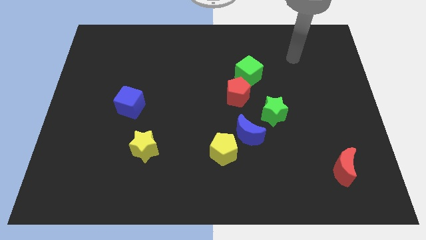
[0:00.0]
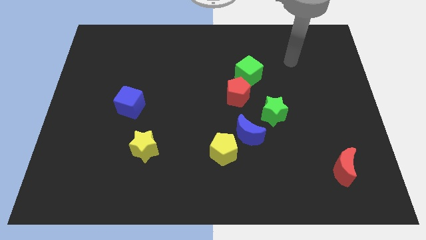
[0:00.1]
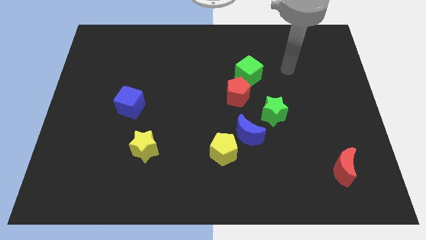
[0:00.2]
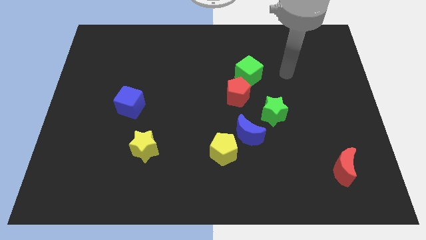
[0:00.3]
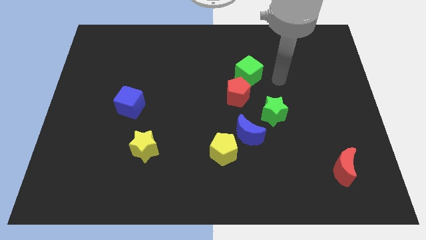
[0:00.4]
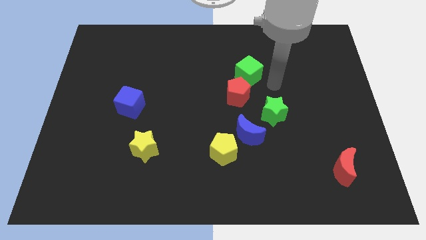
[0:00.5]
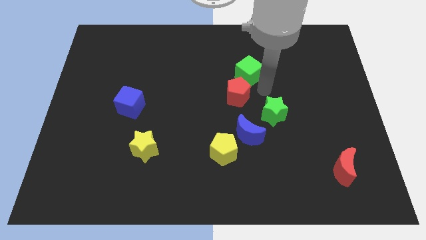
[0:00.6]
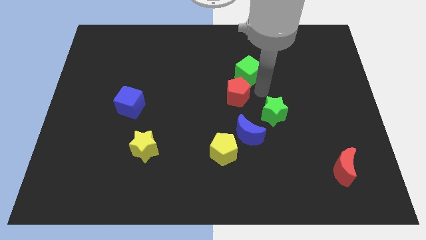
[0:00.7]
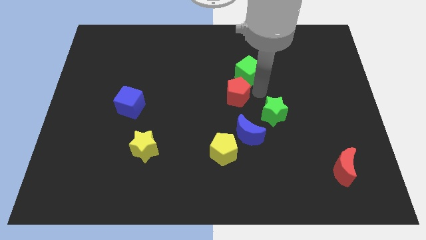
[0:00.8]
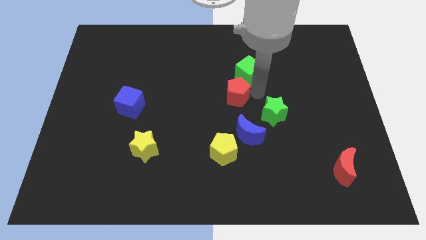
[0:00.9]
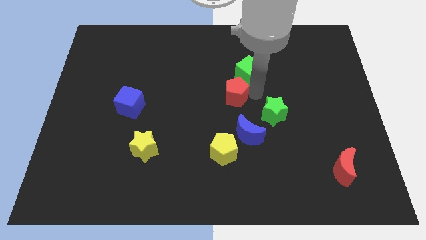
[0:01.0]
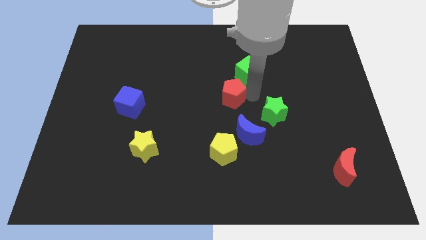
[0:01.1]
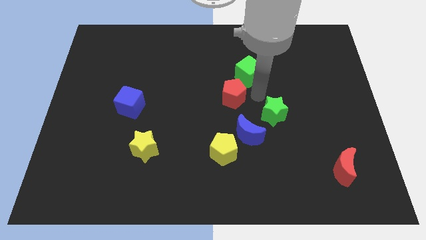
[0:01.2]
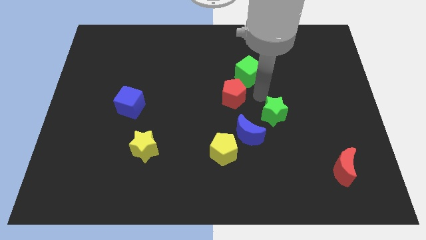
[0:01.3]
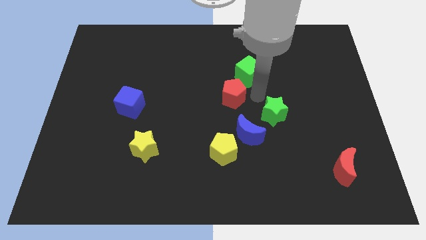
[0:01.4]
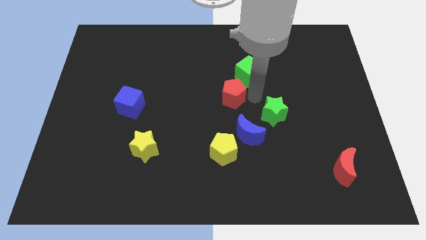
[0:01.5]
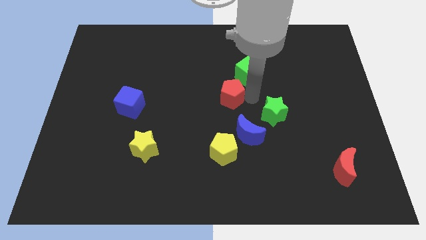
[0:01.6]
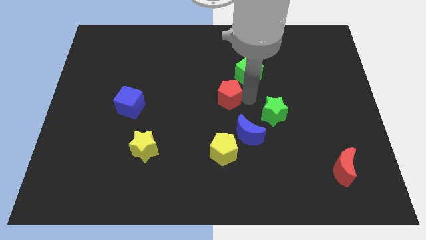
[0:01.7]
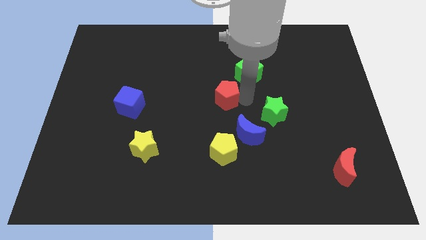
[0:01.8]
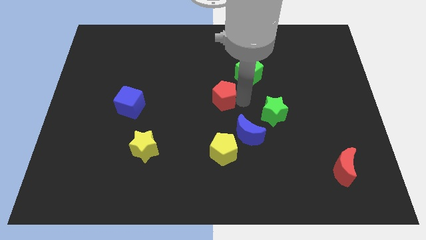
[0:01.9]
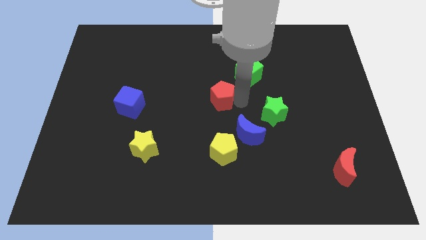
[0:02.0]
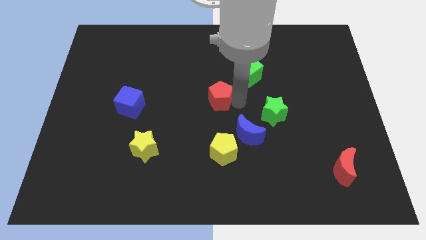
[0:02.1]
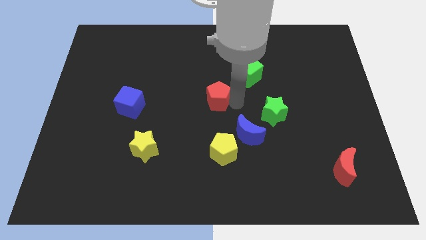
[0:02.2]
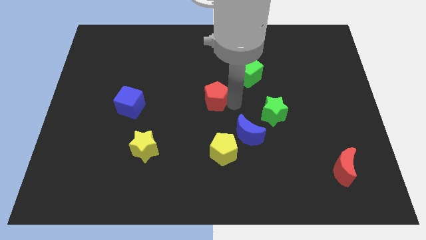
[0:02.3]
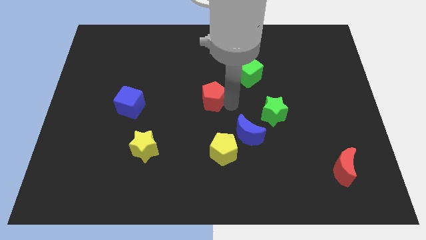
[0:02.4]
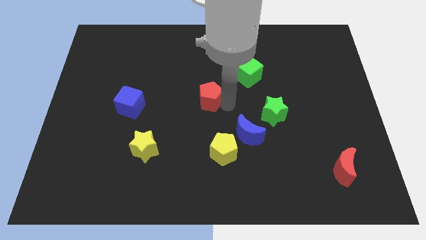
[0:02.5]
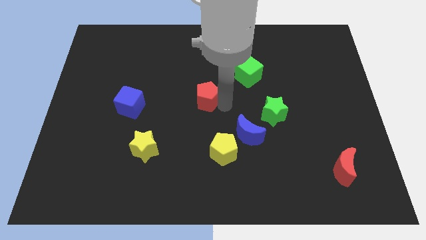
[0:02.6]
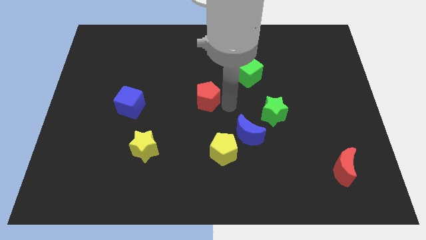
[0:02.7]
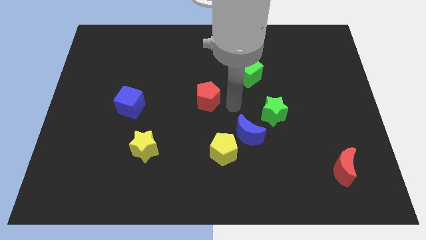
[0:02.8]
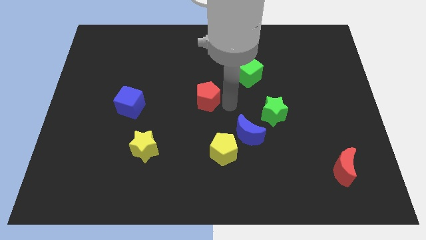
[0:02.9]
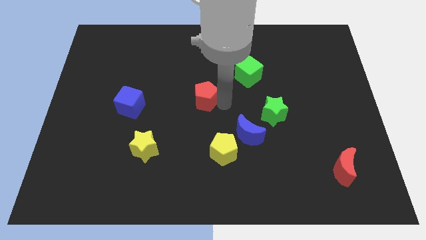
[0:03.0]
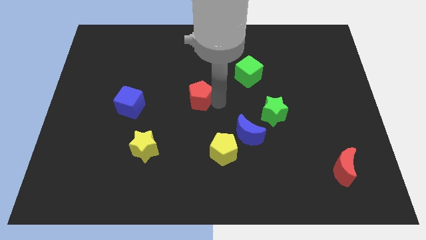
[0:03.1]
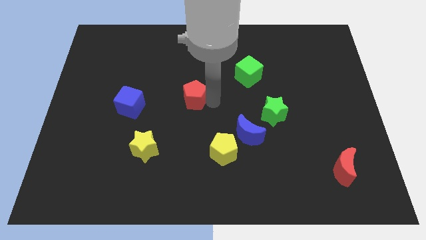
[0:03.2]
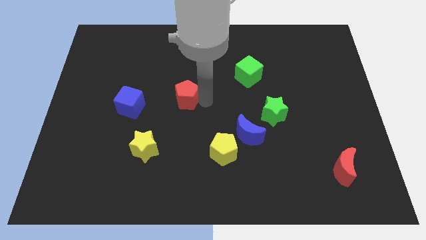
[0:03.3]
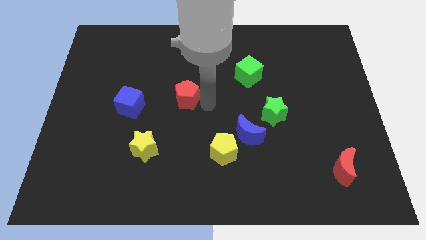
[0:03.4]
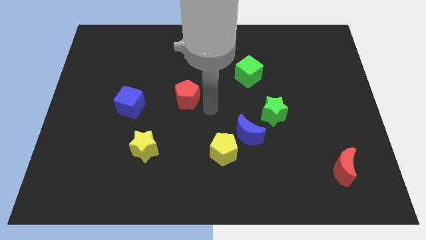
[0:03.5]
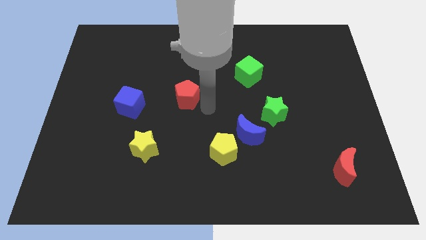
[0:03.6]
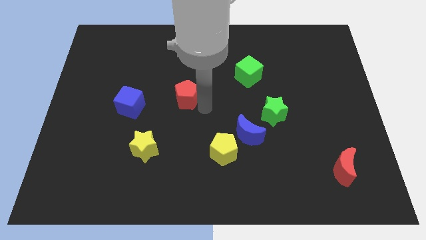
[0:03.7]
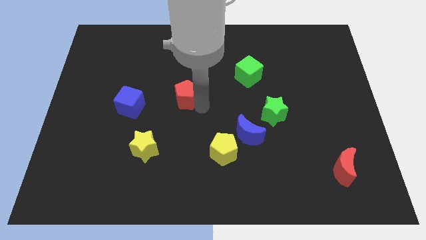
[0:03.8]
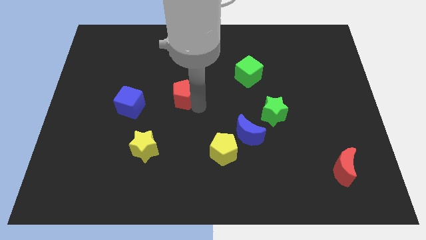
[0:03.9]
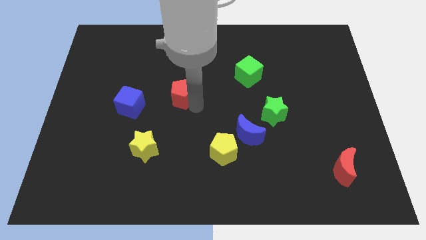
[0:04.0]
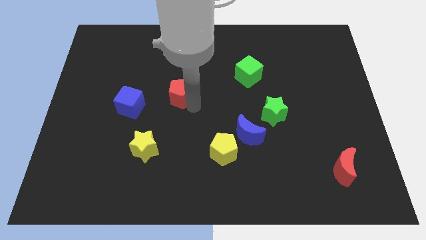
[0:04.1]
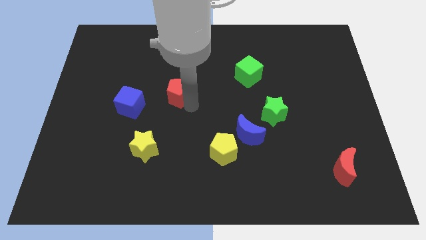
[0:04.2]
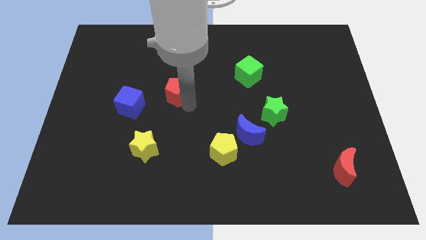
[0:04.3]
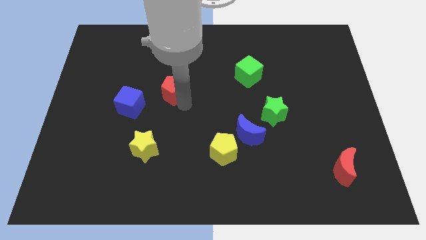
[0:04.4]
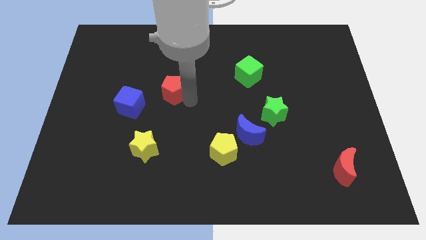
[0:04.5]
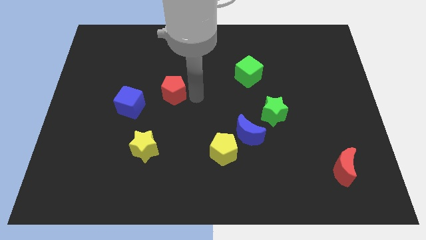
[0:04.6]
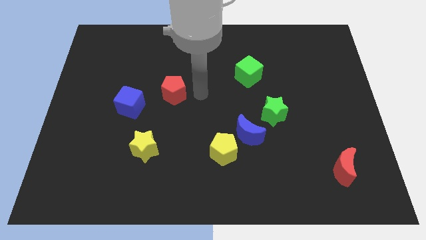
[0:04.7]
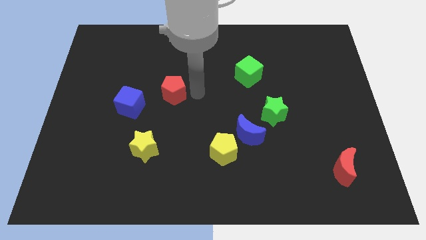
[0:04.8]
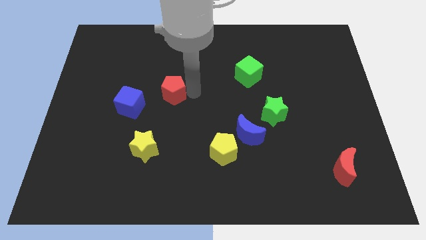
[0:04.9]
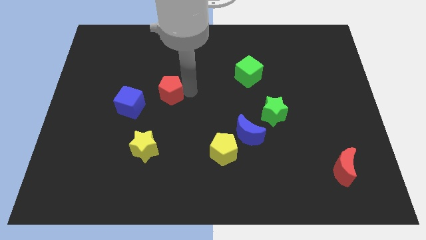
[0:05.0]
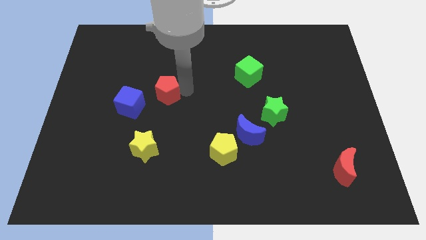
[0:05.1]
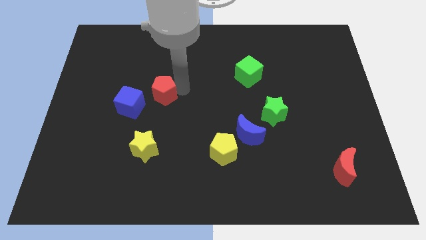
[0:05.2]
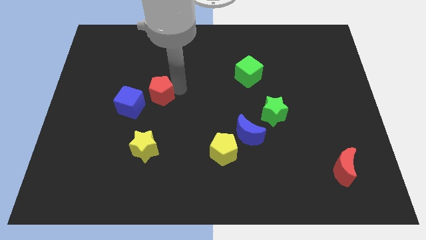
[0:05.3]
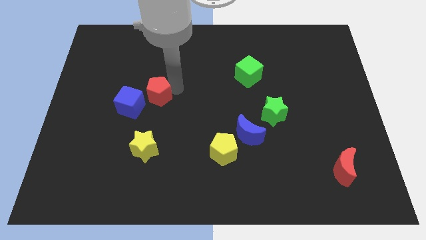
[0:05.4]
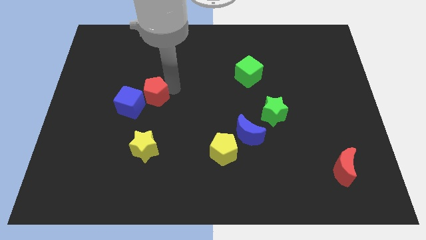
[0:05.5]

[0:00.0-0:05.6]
push the red pentagon left

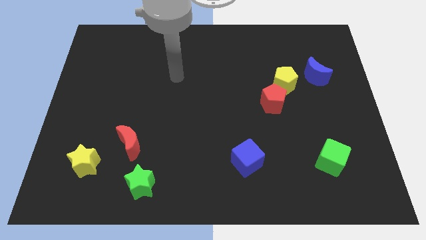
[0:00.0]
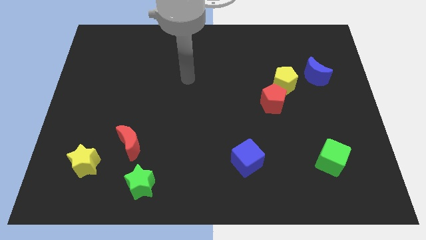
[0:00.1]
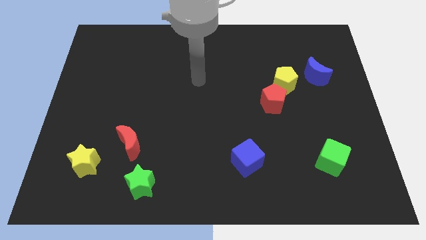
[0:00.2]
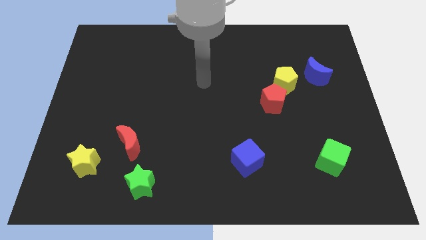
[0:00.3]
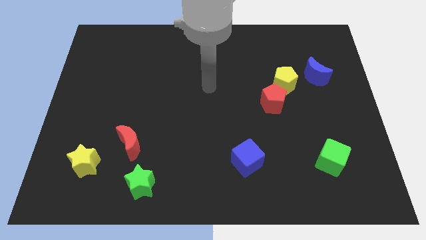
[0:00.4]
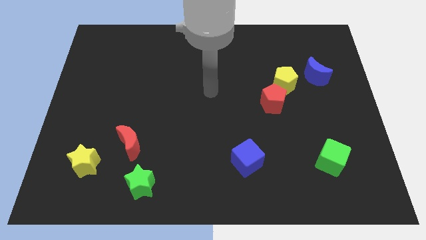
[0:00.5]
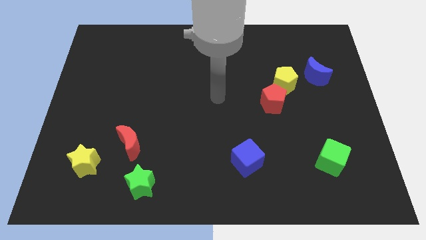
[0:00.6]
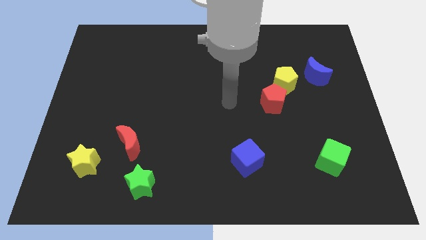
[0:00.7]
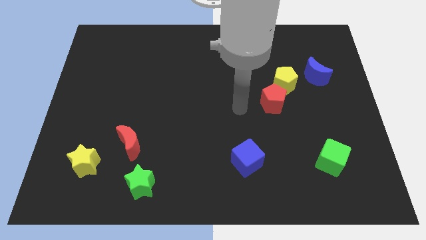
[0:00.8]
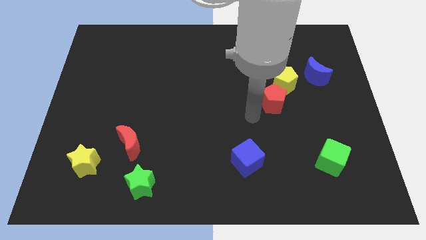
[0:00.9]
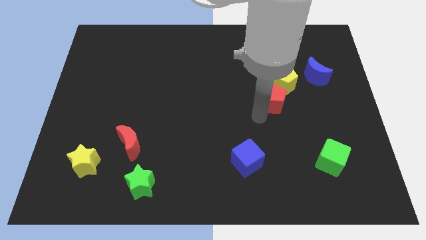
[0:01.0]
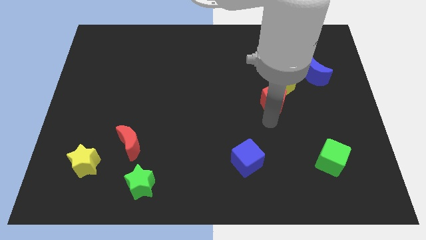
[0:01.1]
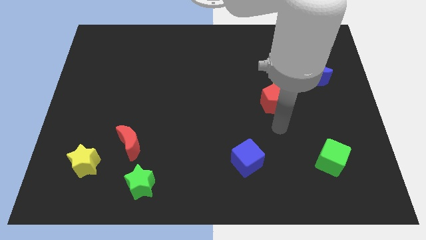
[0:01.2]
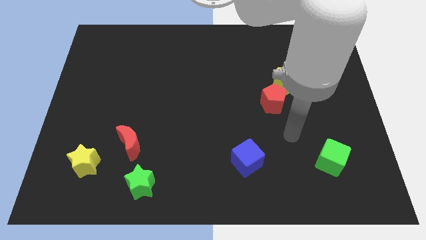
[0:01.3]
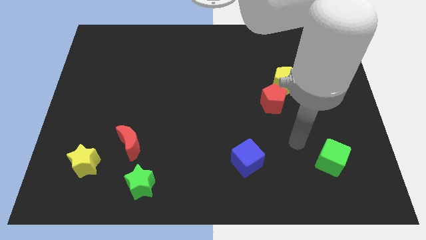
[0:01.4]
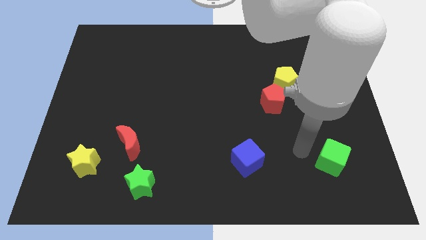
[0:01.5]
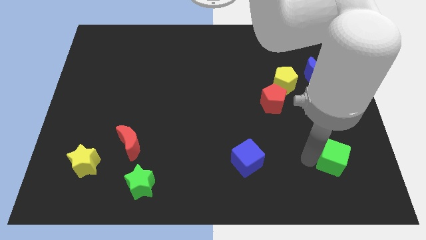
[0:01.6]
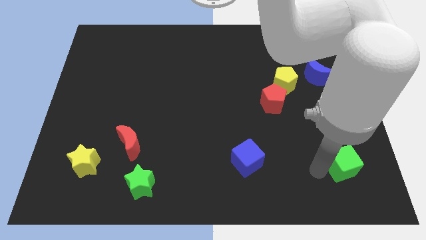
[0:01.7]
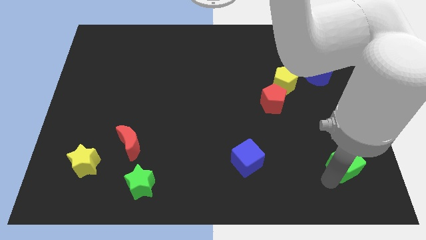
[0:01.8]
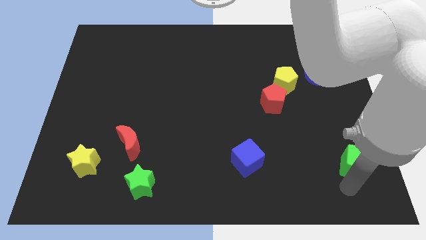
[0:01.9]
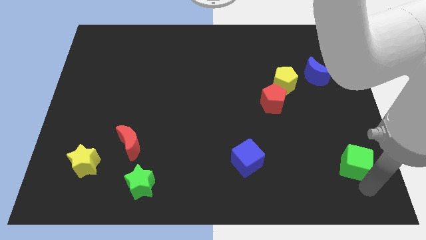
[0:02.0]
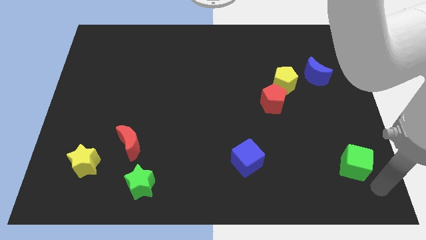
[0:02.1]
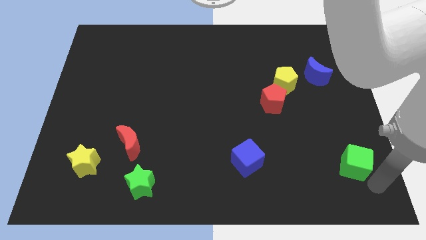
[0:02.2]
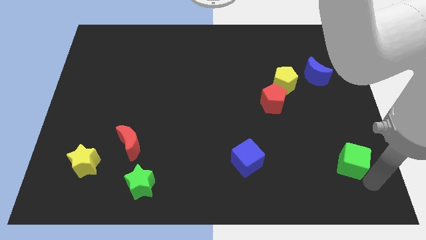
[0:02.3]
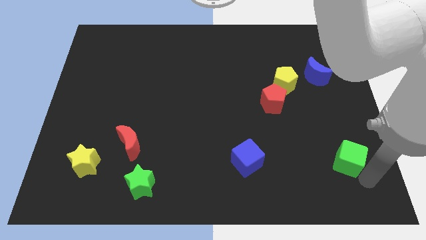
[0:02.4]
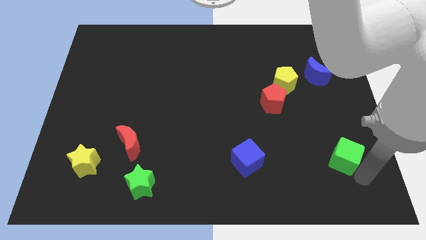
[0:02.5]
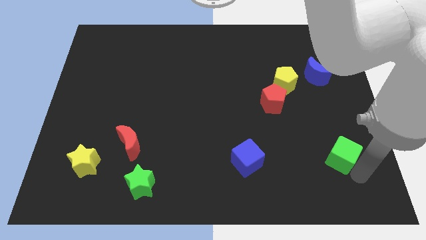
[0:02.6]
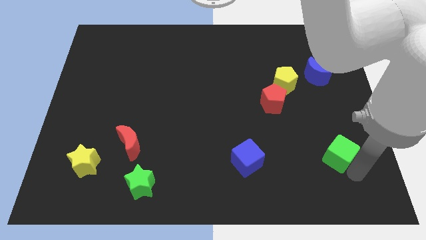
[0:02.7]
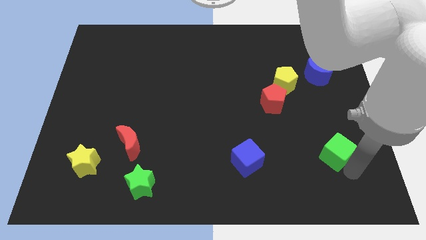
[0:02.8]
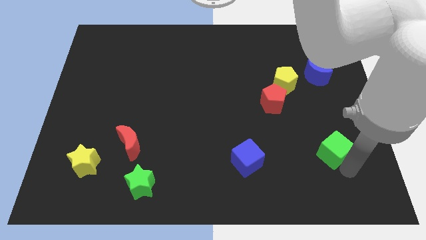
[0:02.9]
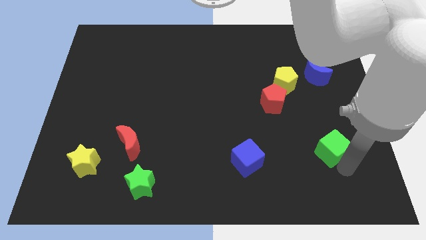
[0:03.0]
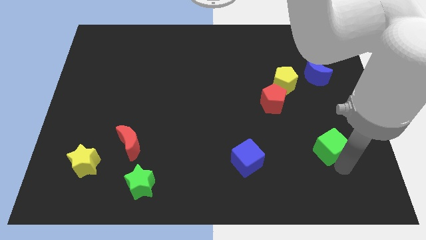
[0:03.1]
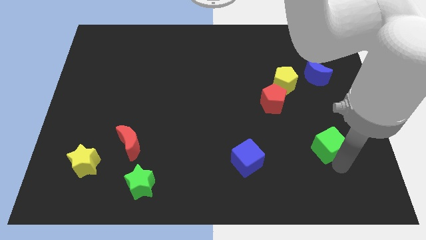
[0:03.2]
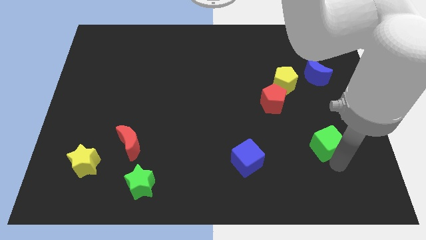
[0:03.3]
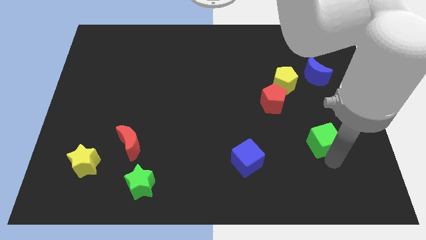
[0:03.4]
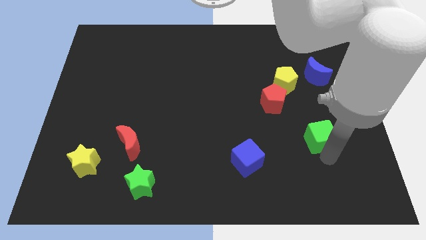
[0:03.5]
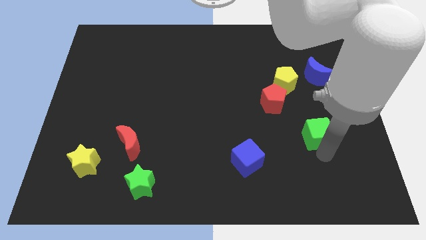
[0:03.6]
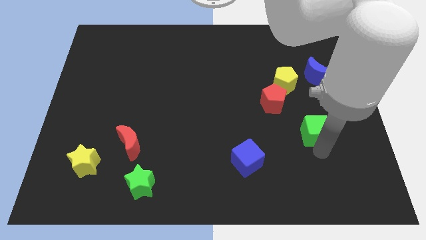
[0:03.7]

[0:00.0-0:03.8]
slightly push the green cube up
